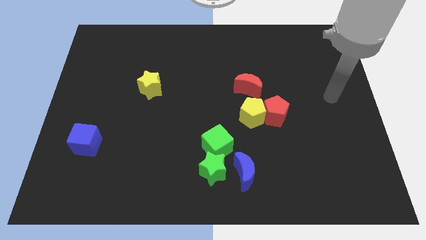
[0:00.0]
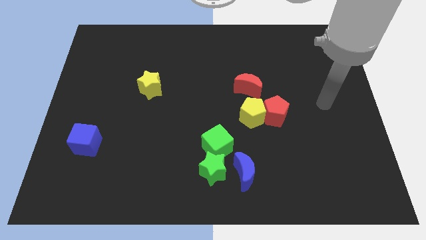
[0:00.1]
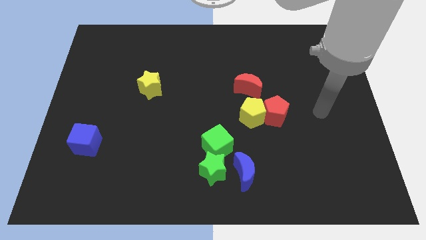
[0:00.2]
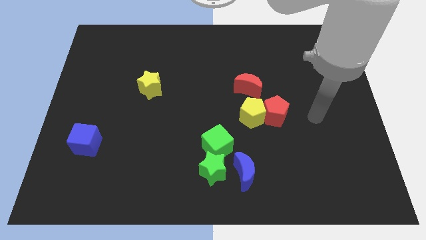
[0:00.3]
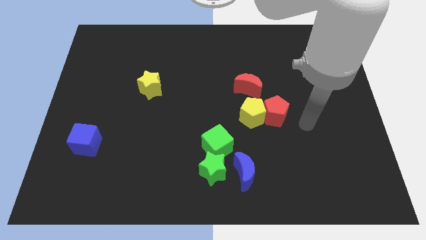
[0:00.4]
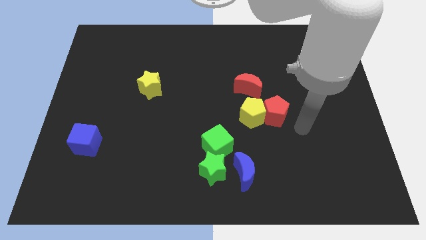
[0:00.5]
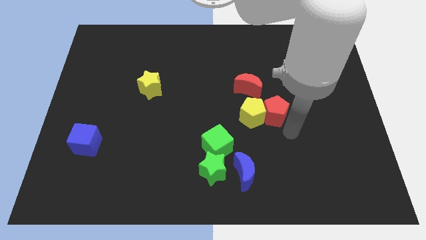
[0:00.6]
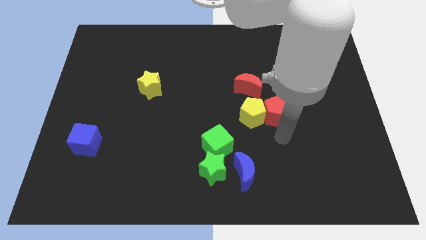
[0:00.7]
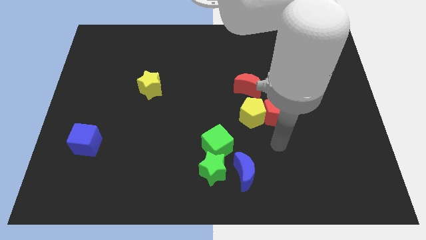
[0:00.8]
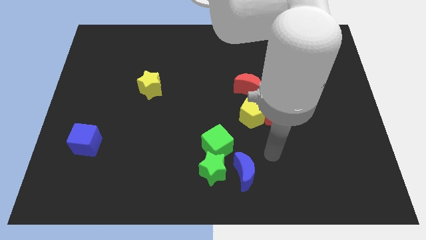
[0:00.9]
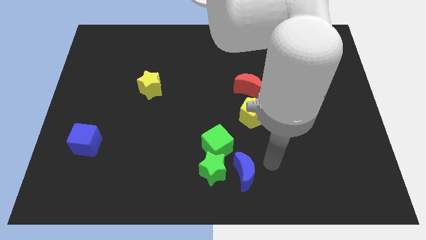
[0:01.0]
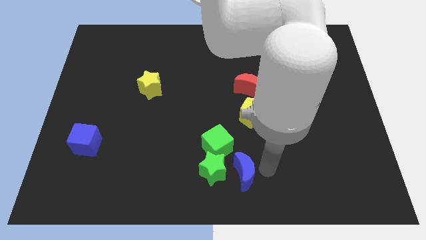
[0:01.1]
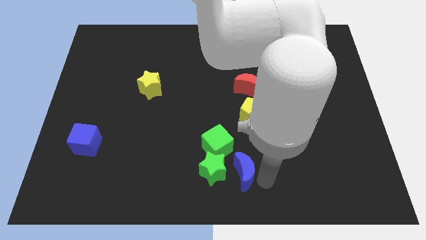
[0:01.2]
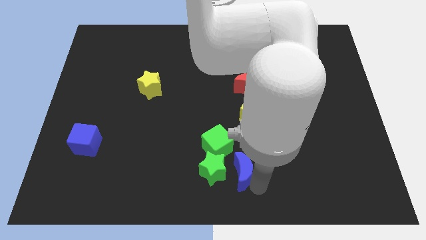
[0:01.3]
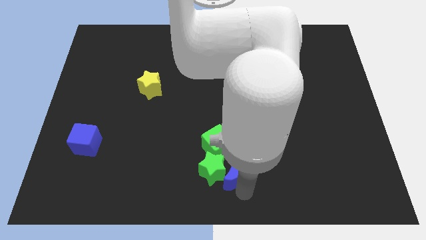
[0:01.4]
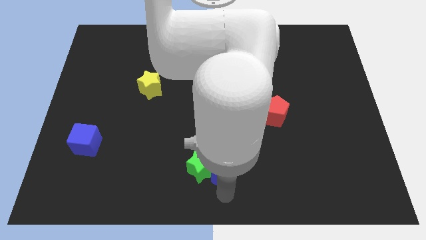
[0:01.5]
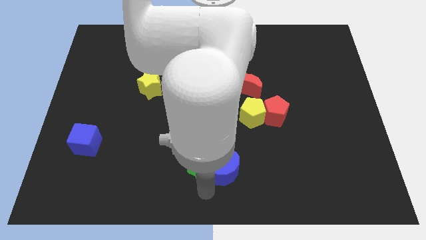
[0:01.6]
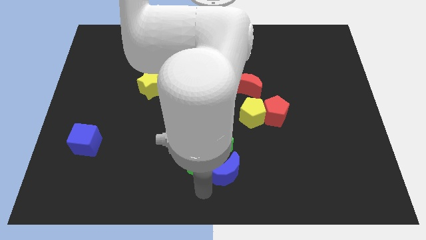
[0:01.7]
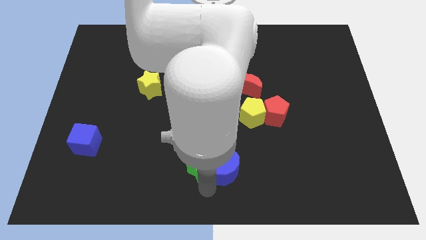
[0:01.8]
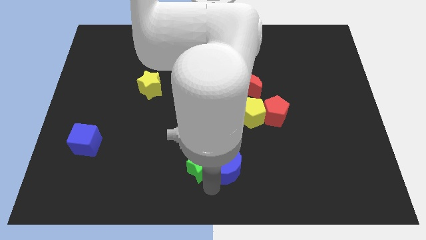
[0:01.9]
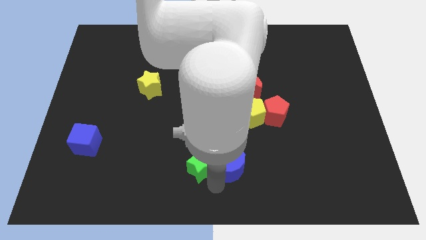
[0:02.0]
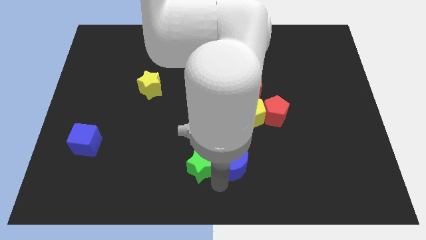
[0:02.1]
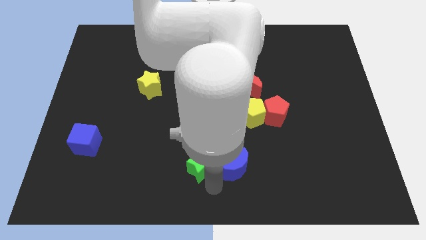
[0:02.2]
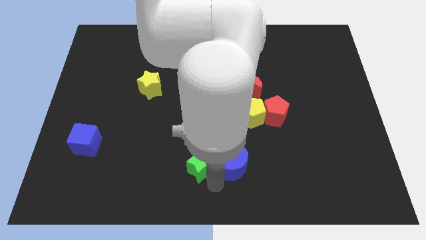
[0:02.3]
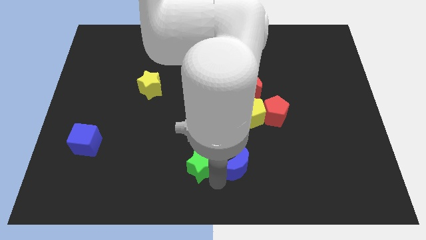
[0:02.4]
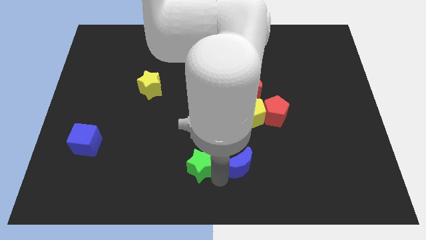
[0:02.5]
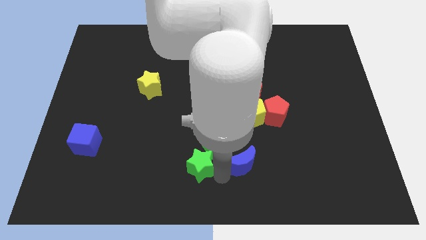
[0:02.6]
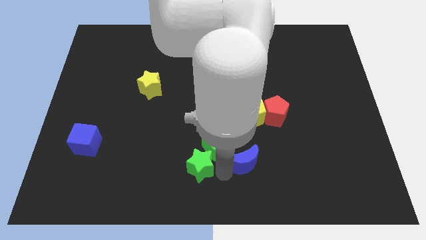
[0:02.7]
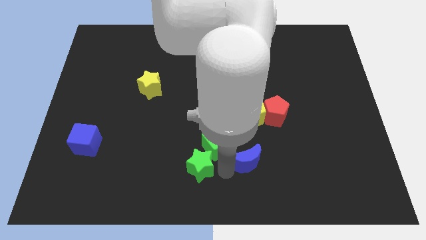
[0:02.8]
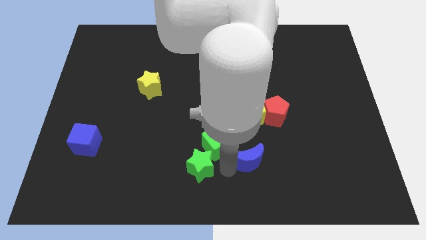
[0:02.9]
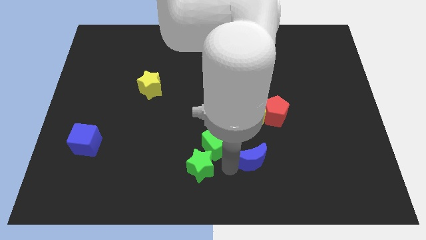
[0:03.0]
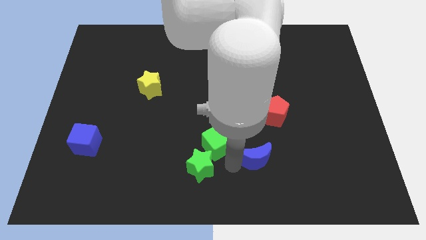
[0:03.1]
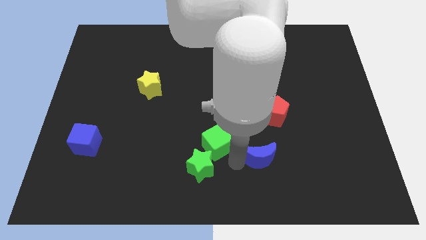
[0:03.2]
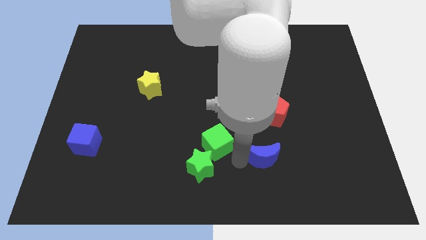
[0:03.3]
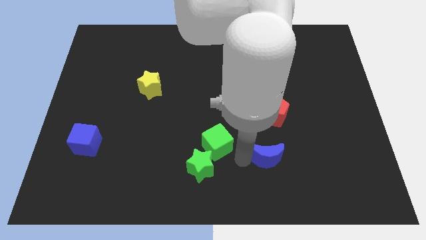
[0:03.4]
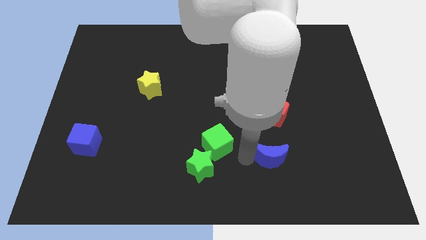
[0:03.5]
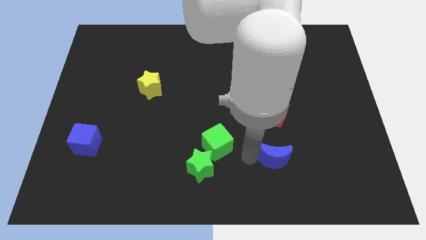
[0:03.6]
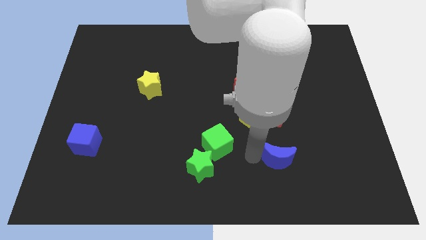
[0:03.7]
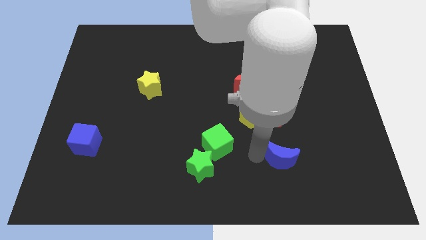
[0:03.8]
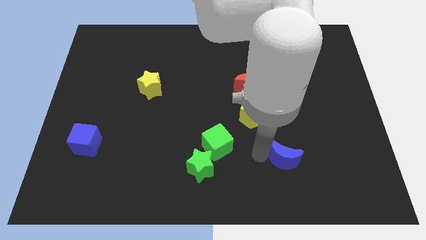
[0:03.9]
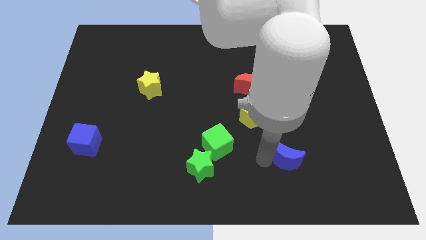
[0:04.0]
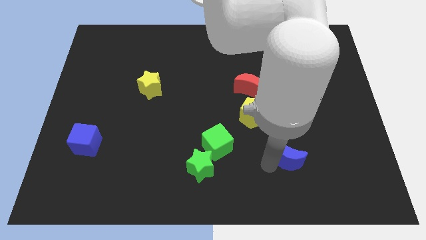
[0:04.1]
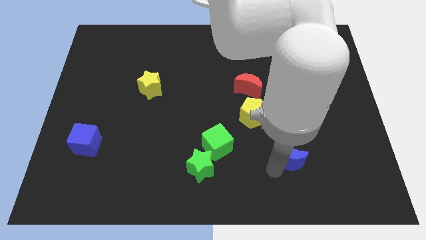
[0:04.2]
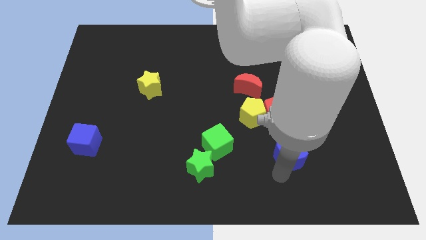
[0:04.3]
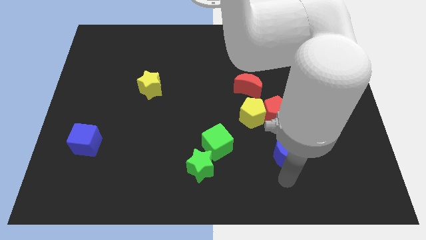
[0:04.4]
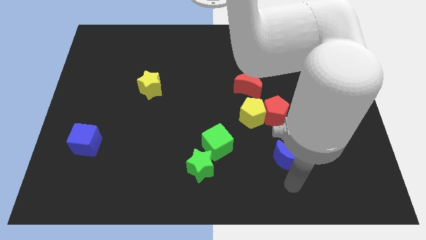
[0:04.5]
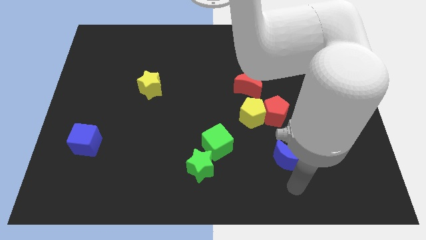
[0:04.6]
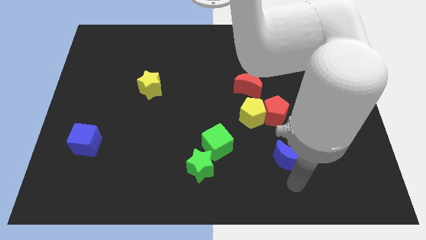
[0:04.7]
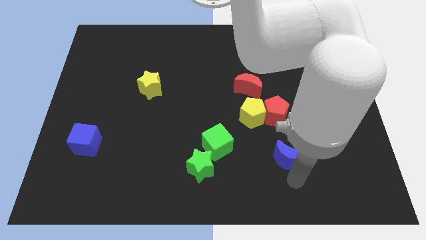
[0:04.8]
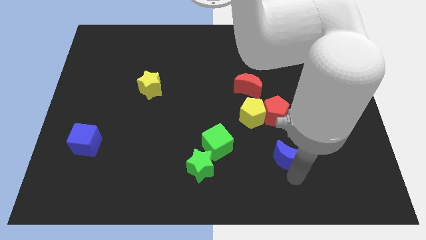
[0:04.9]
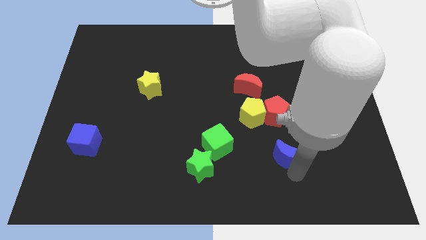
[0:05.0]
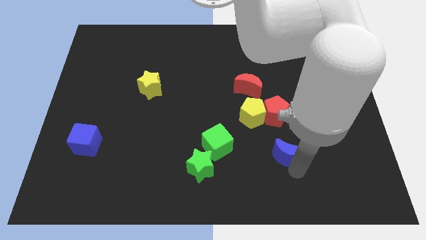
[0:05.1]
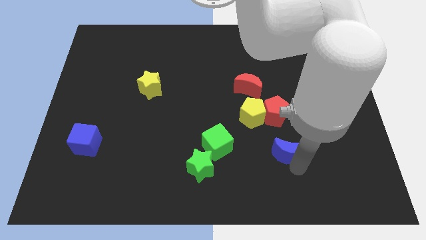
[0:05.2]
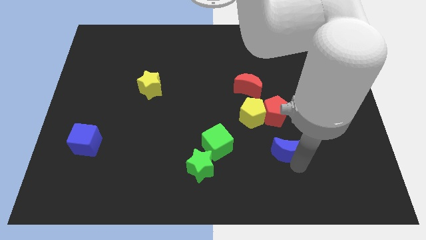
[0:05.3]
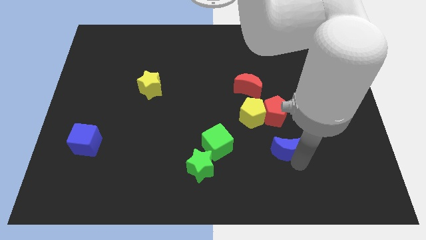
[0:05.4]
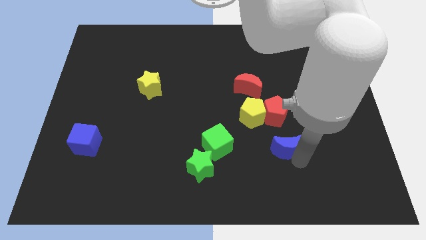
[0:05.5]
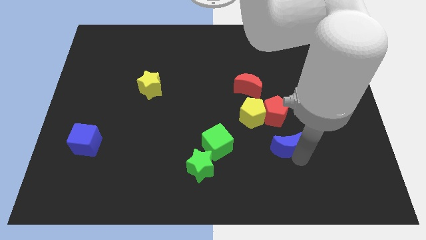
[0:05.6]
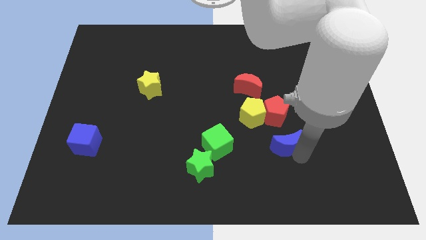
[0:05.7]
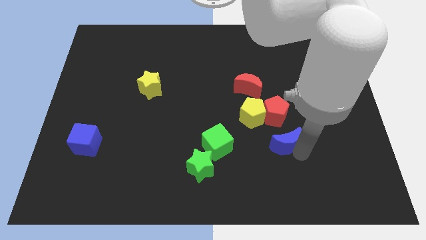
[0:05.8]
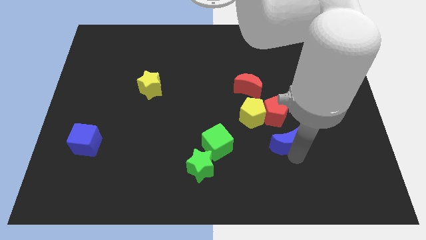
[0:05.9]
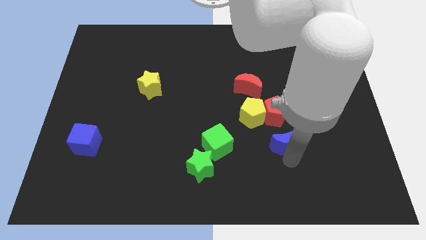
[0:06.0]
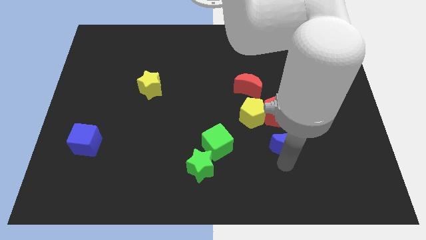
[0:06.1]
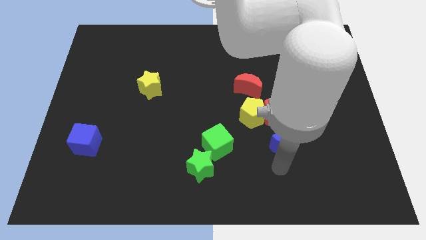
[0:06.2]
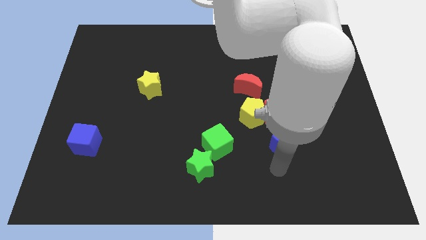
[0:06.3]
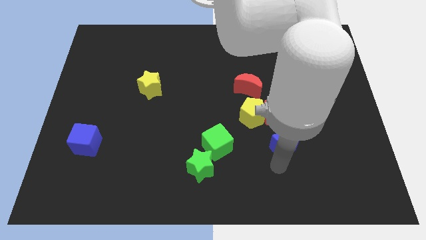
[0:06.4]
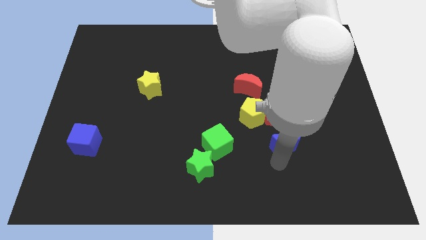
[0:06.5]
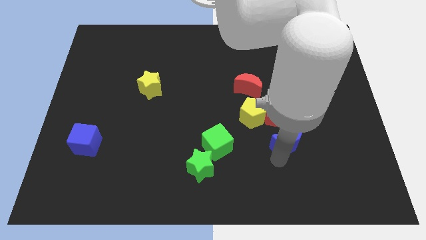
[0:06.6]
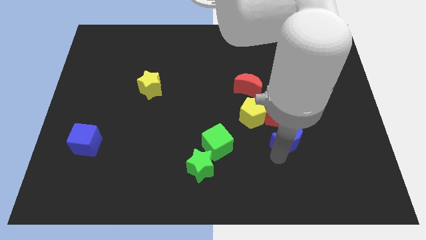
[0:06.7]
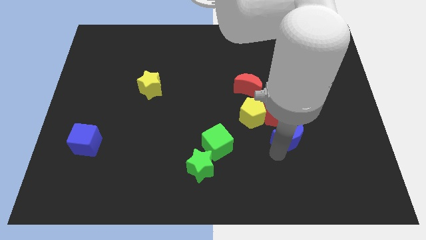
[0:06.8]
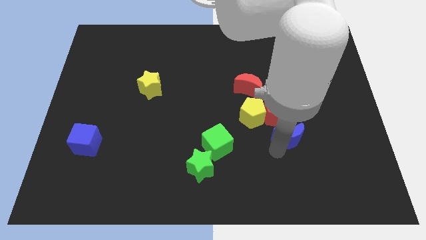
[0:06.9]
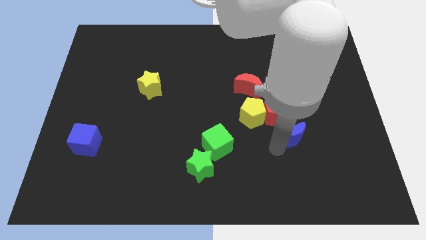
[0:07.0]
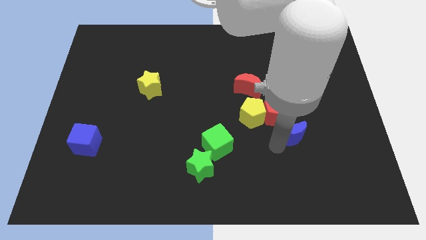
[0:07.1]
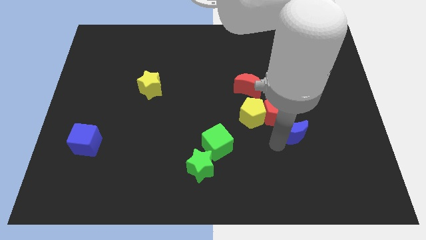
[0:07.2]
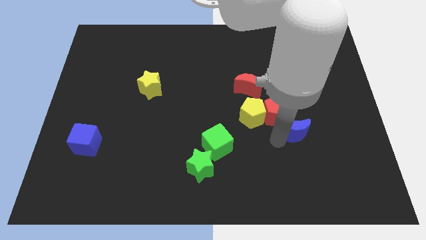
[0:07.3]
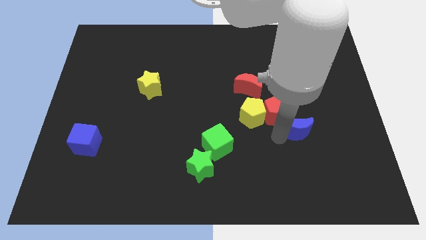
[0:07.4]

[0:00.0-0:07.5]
move the blue moon to the right of the red pentagon
